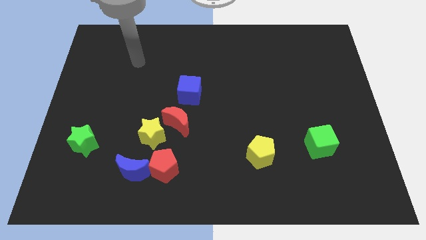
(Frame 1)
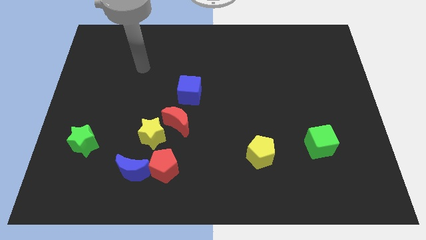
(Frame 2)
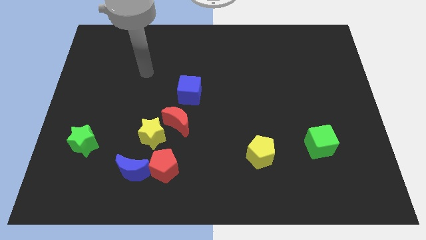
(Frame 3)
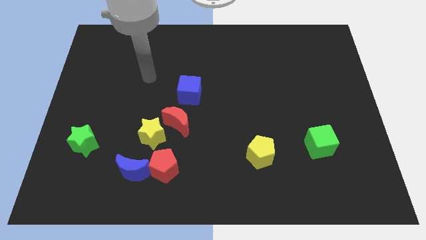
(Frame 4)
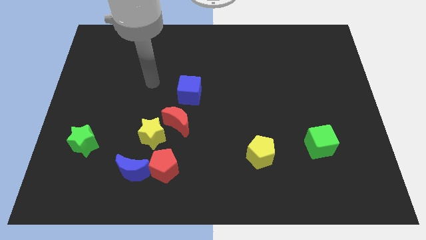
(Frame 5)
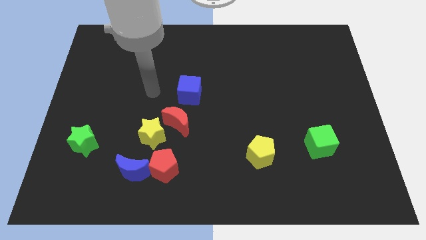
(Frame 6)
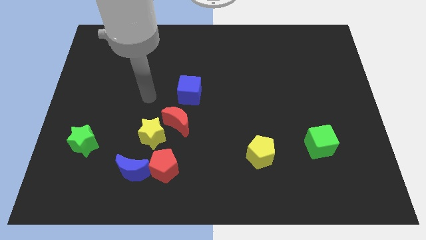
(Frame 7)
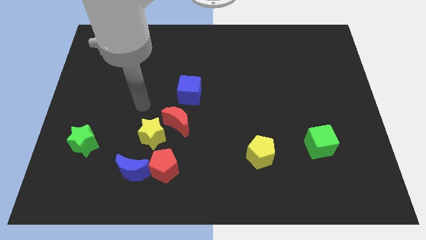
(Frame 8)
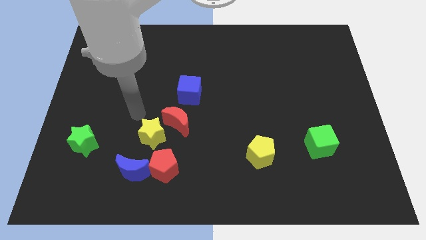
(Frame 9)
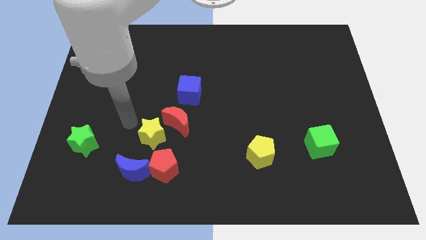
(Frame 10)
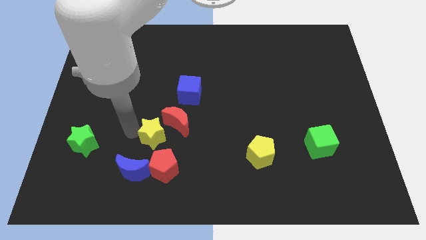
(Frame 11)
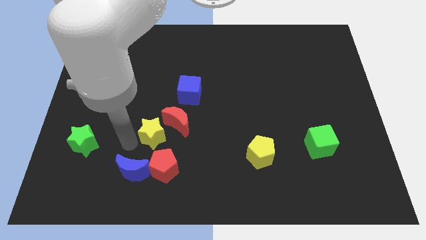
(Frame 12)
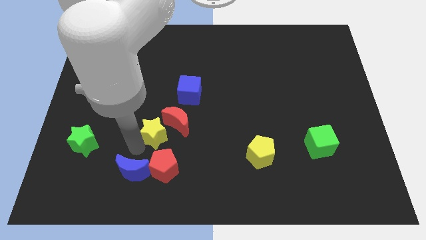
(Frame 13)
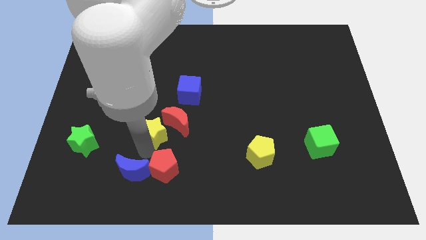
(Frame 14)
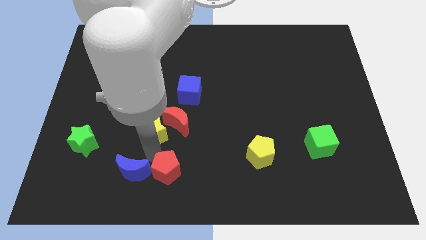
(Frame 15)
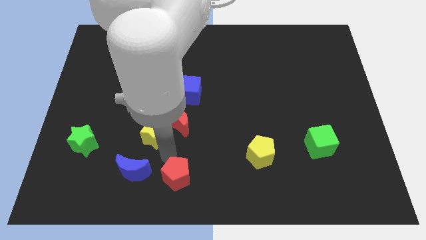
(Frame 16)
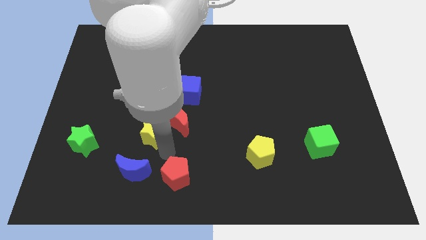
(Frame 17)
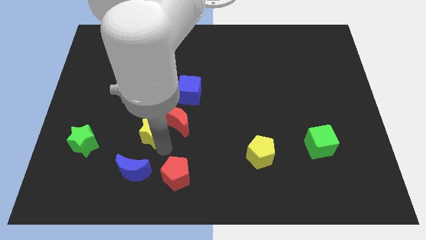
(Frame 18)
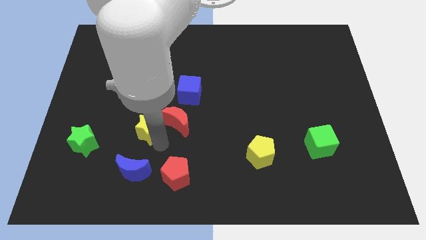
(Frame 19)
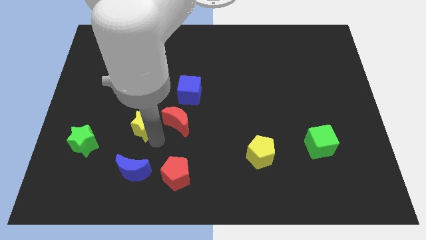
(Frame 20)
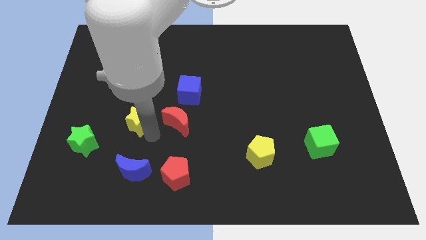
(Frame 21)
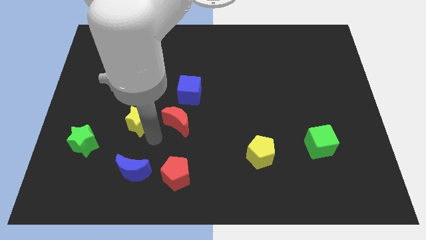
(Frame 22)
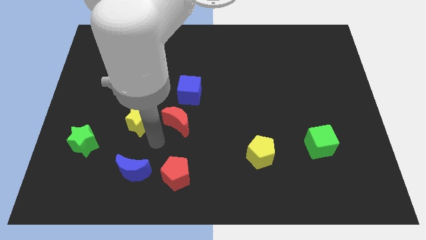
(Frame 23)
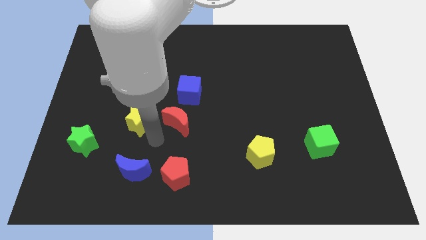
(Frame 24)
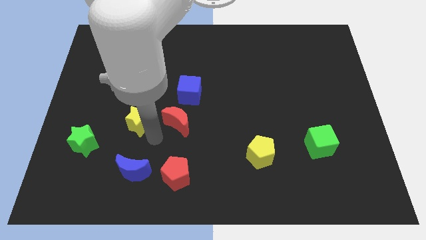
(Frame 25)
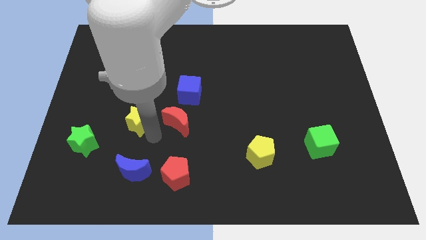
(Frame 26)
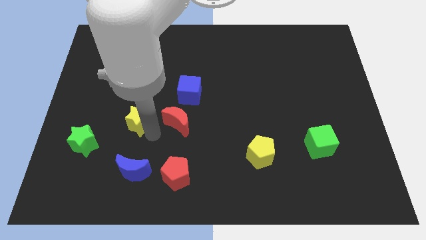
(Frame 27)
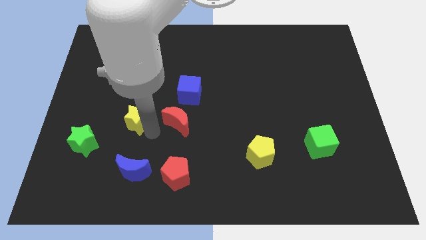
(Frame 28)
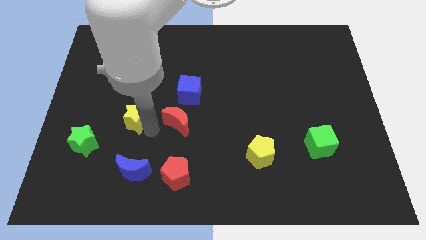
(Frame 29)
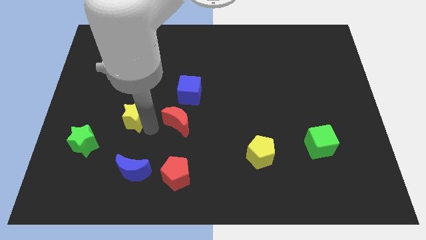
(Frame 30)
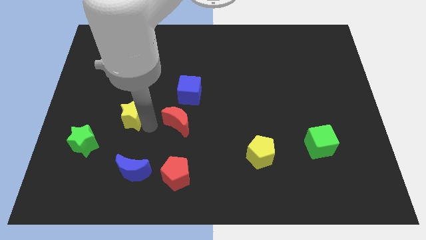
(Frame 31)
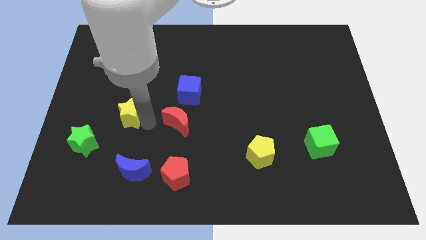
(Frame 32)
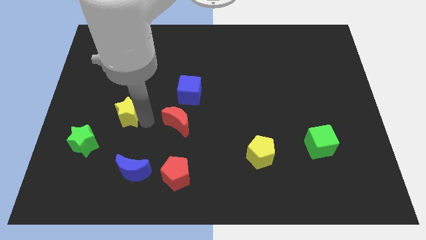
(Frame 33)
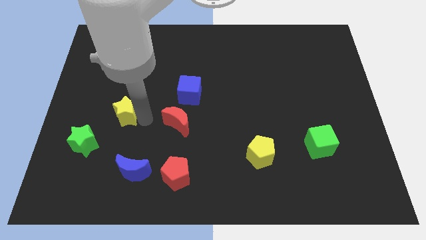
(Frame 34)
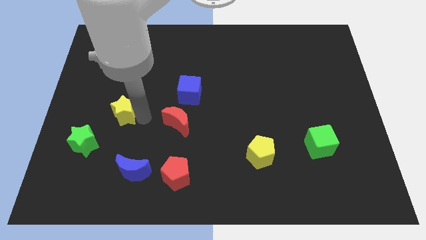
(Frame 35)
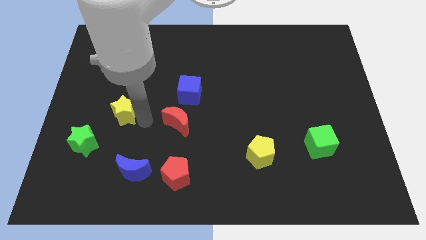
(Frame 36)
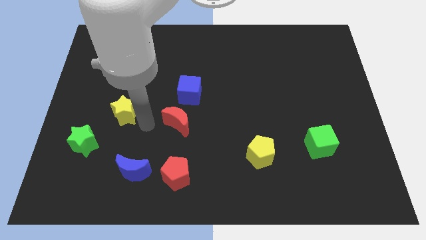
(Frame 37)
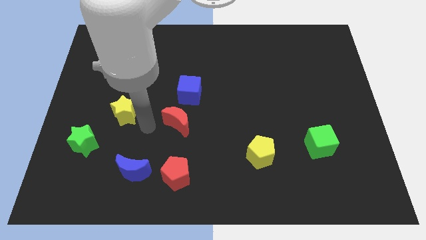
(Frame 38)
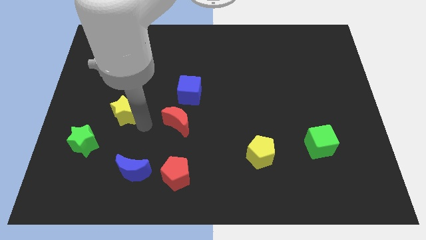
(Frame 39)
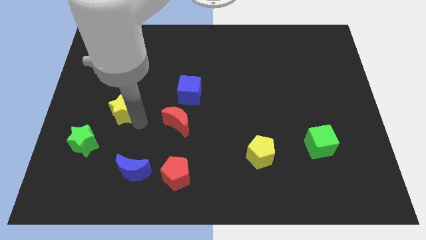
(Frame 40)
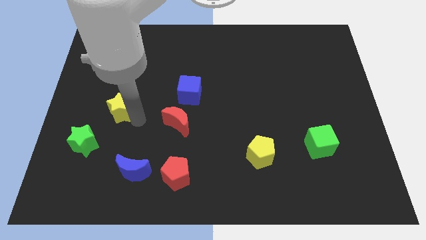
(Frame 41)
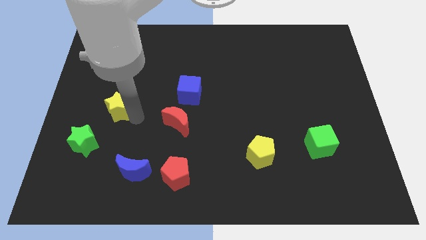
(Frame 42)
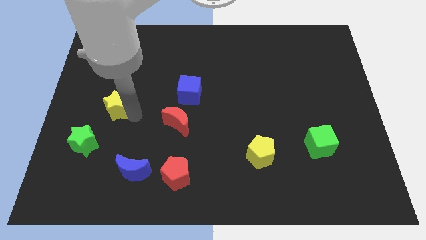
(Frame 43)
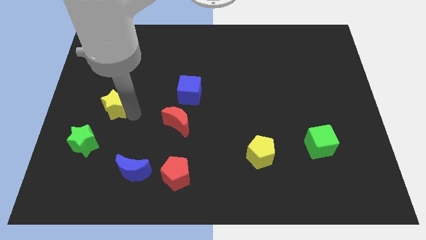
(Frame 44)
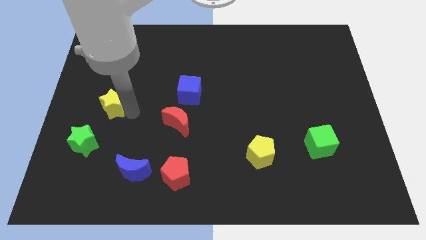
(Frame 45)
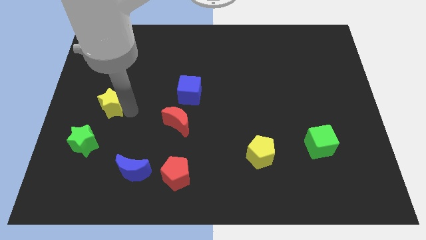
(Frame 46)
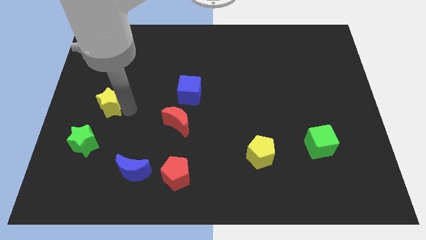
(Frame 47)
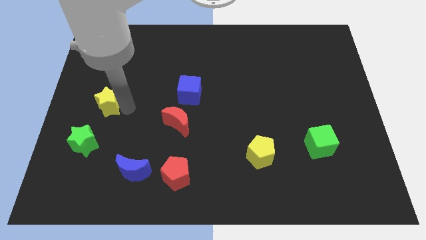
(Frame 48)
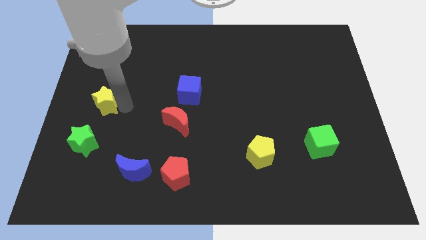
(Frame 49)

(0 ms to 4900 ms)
put the yellow star to the center left

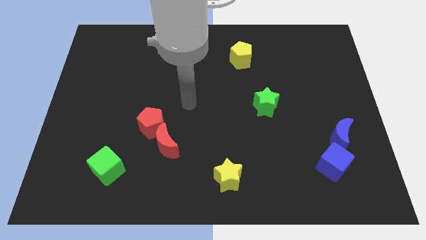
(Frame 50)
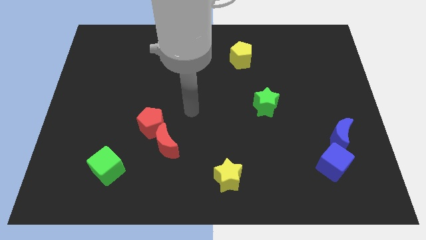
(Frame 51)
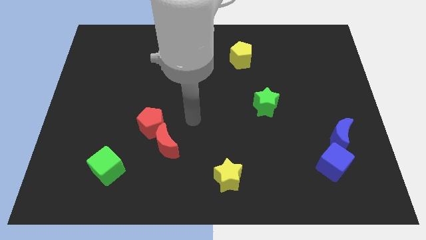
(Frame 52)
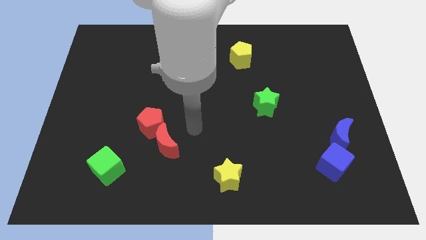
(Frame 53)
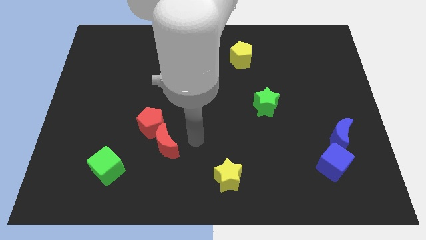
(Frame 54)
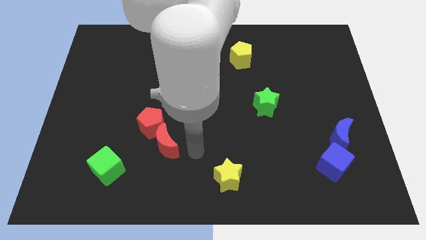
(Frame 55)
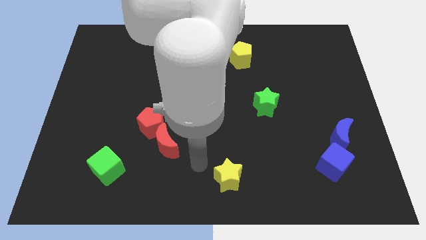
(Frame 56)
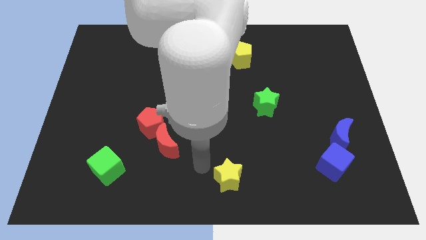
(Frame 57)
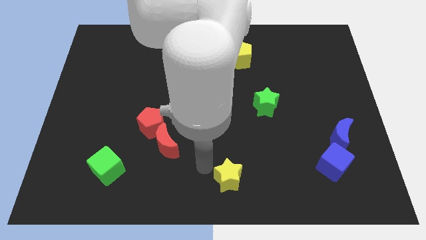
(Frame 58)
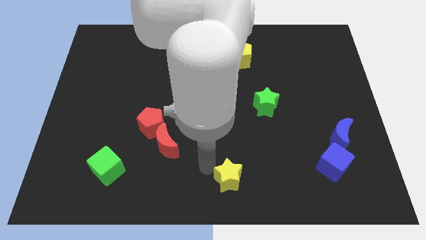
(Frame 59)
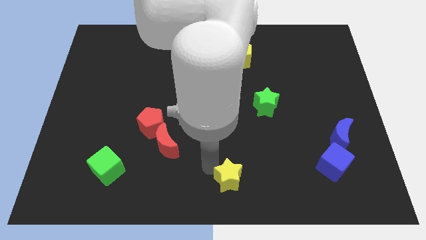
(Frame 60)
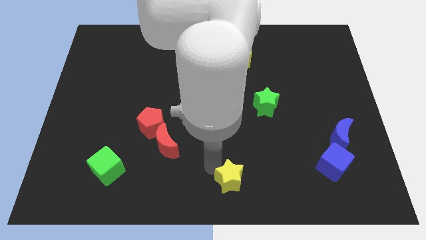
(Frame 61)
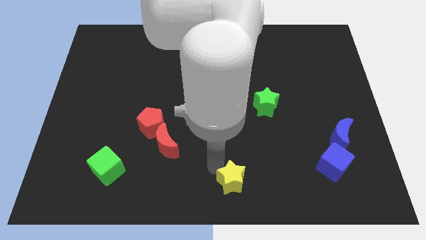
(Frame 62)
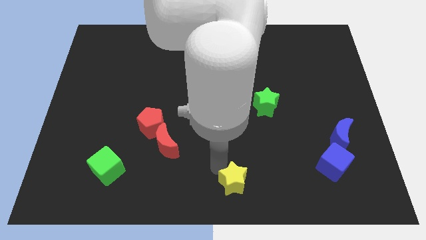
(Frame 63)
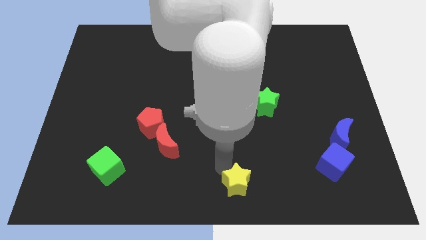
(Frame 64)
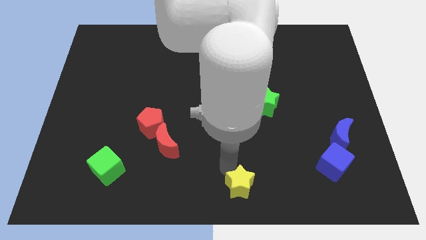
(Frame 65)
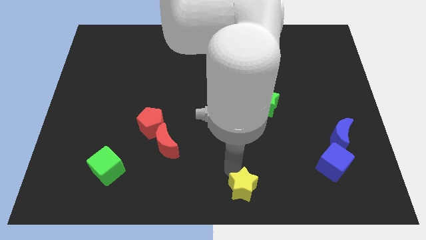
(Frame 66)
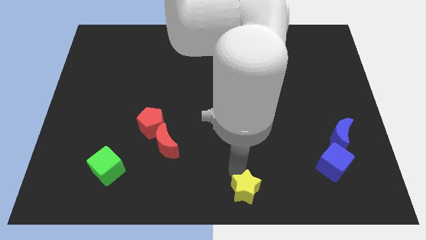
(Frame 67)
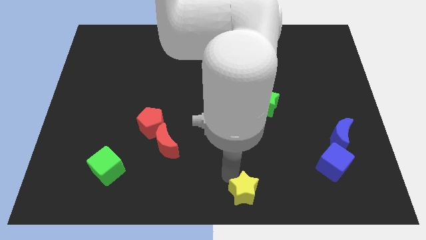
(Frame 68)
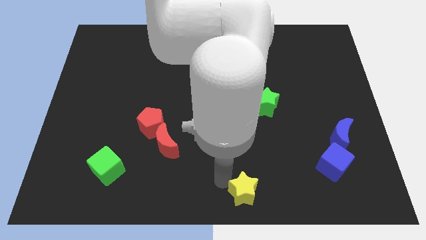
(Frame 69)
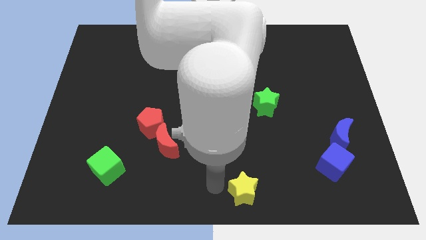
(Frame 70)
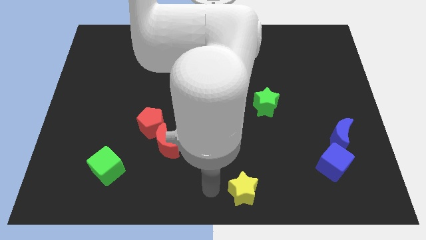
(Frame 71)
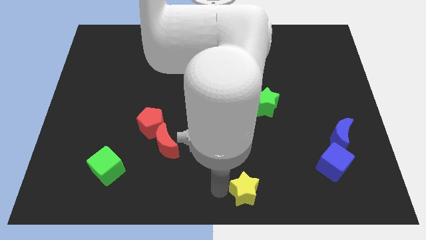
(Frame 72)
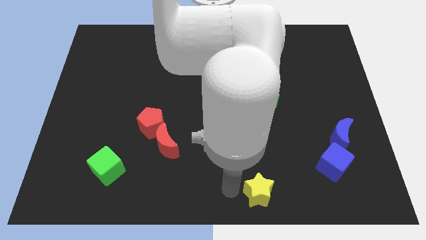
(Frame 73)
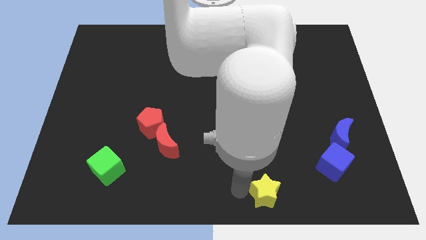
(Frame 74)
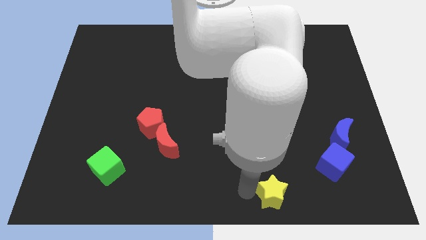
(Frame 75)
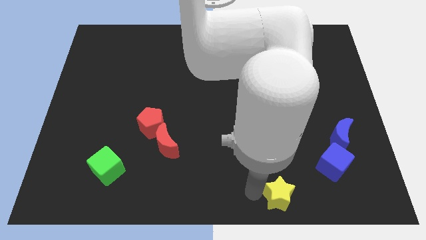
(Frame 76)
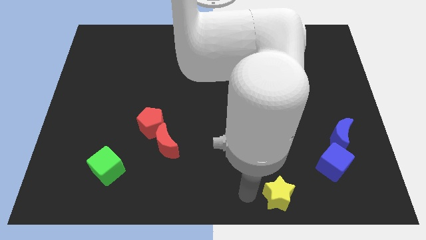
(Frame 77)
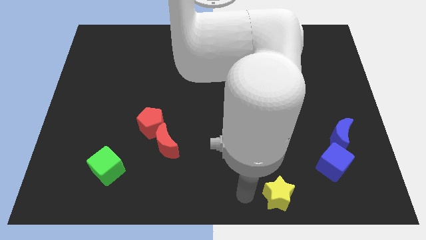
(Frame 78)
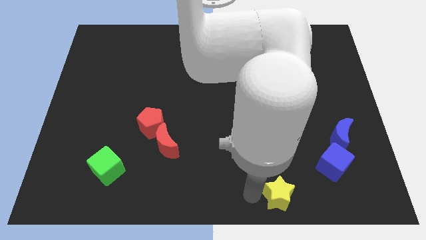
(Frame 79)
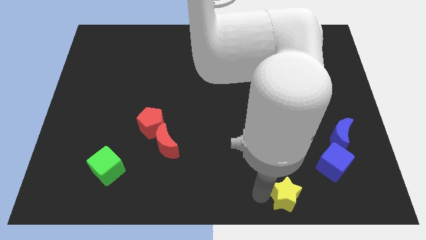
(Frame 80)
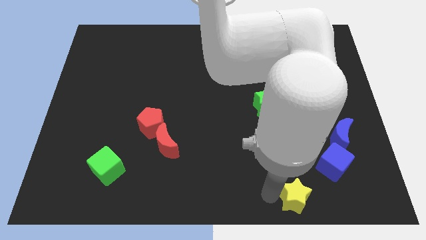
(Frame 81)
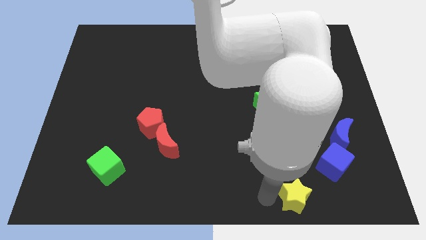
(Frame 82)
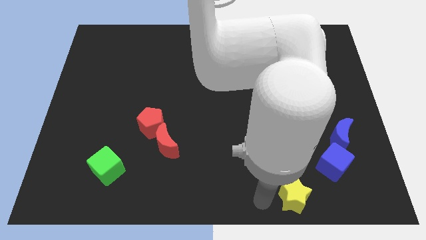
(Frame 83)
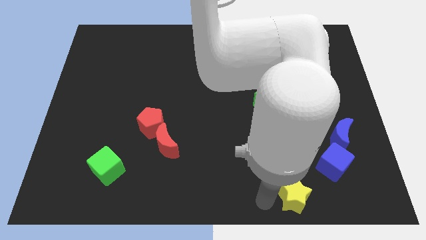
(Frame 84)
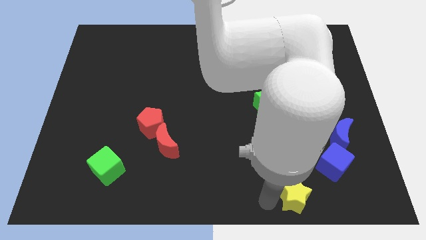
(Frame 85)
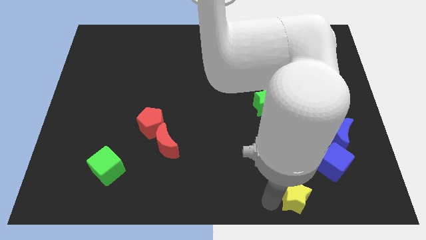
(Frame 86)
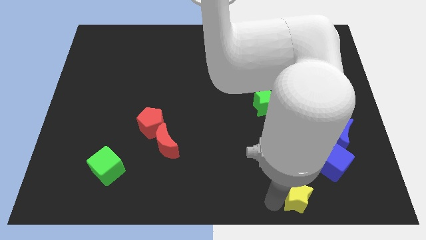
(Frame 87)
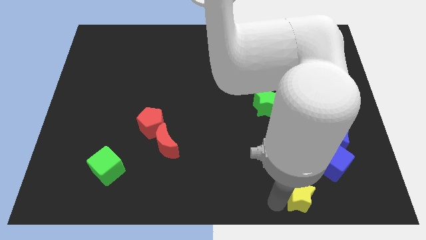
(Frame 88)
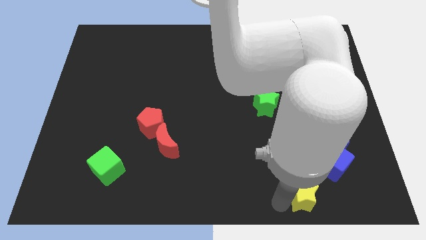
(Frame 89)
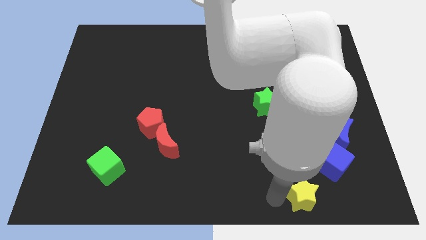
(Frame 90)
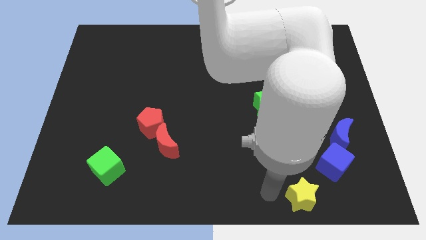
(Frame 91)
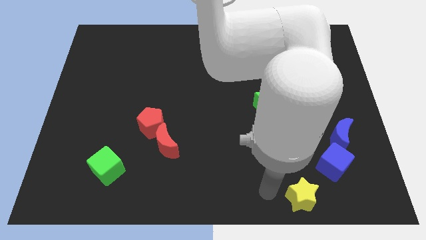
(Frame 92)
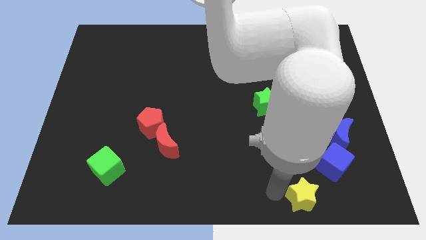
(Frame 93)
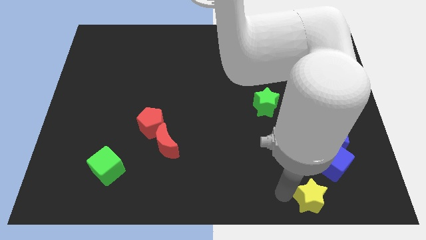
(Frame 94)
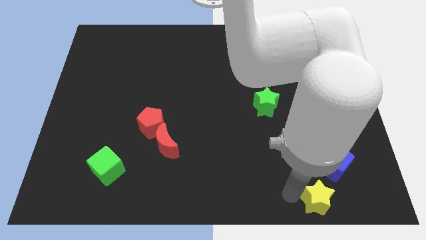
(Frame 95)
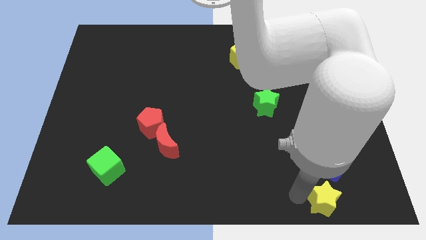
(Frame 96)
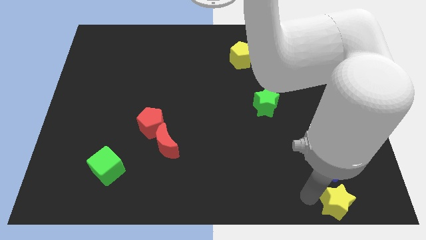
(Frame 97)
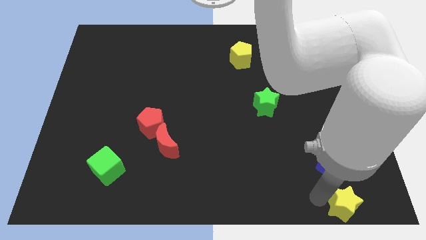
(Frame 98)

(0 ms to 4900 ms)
put the yellow star to the bottom right corner
